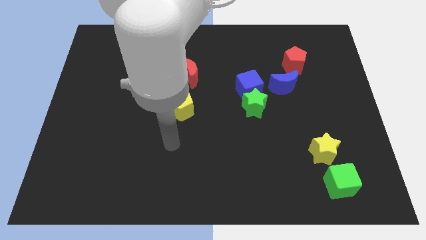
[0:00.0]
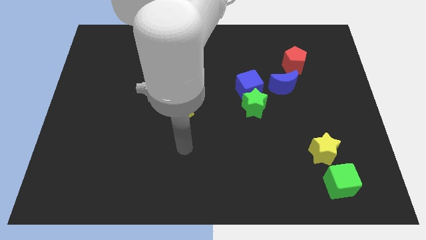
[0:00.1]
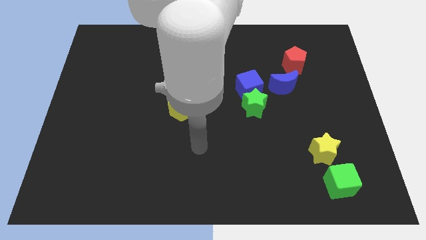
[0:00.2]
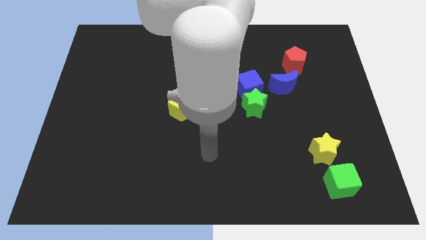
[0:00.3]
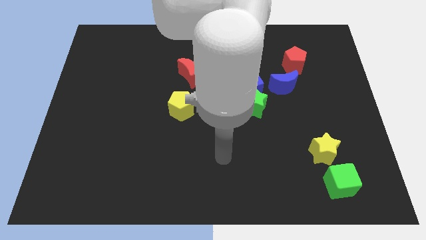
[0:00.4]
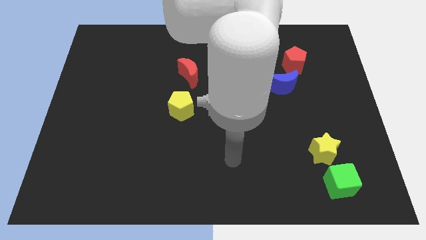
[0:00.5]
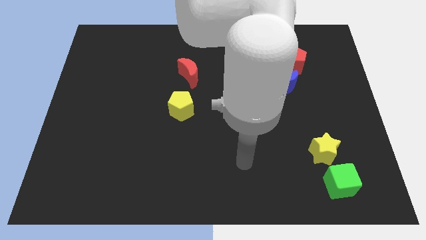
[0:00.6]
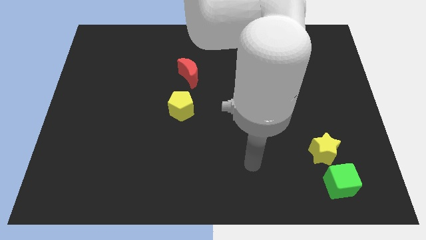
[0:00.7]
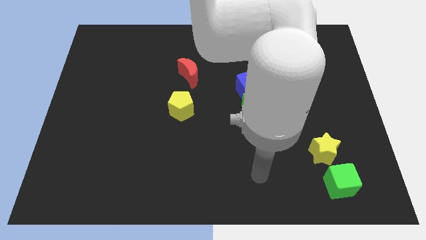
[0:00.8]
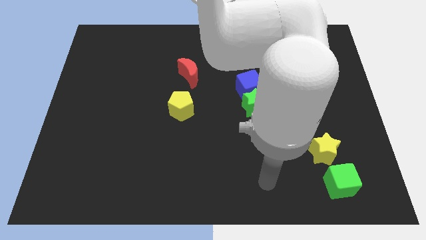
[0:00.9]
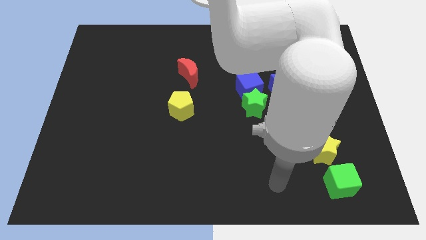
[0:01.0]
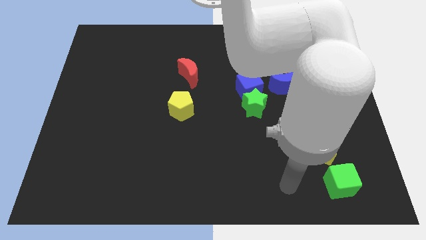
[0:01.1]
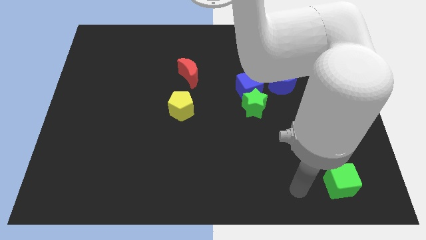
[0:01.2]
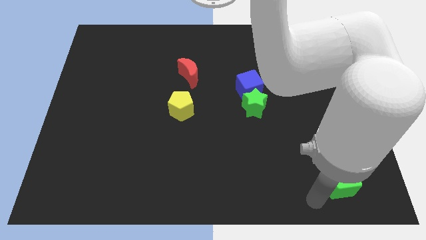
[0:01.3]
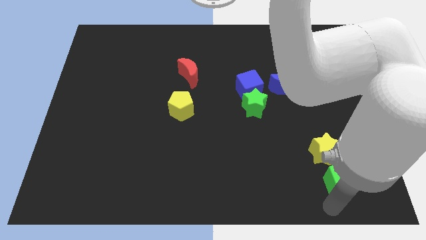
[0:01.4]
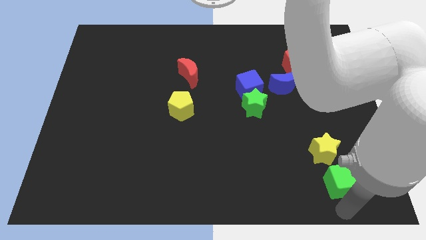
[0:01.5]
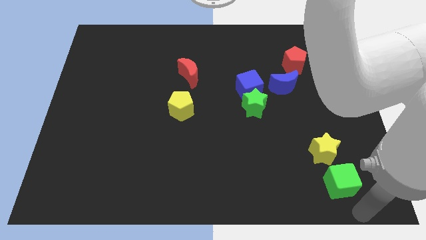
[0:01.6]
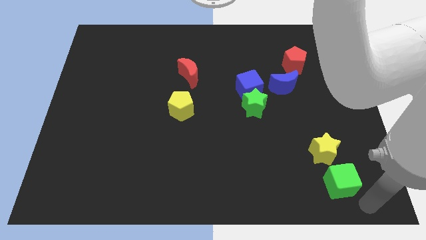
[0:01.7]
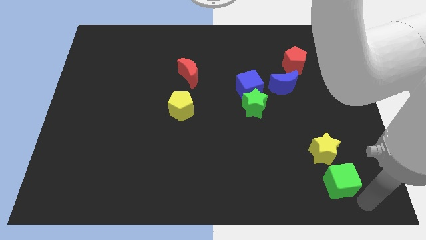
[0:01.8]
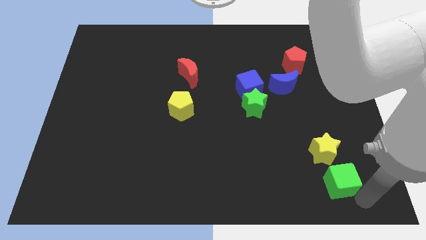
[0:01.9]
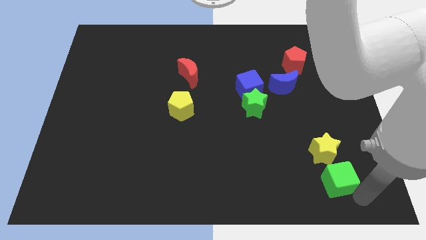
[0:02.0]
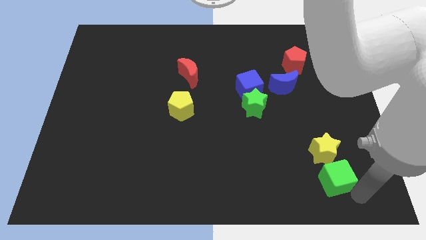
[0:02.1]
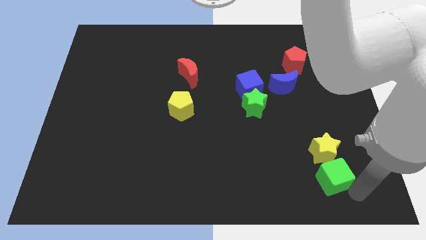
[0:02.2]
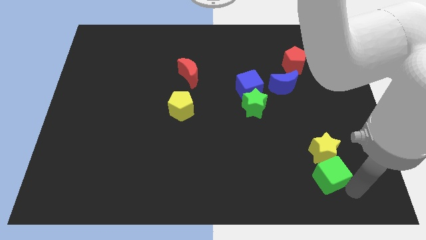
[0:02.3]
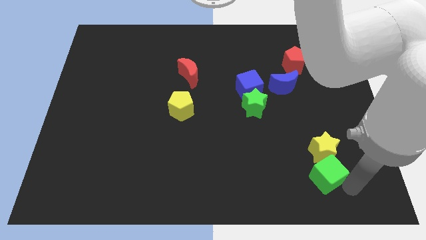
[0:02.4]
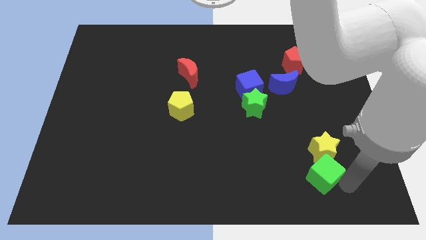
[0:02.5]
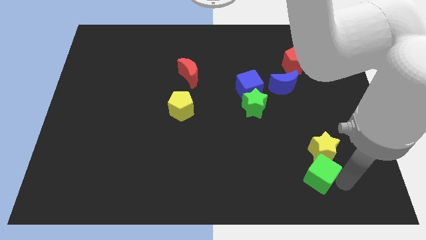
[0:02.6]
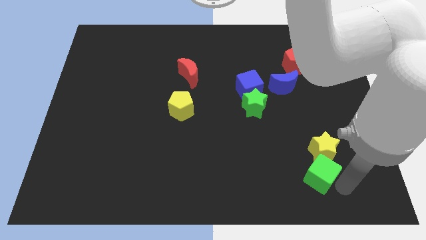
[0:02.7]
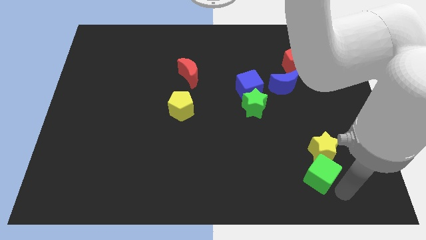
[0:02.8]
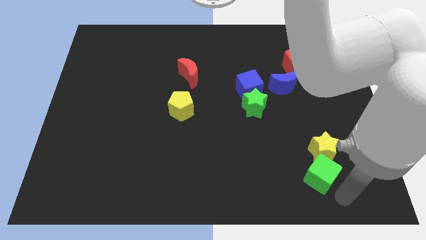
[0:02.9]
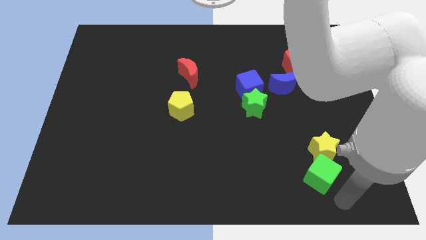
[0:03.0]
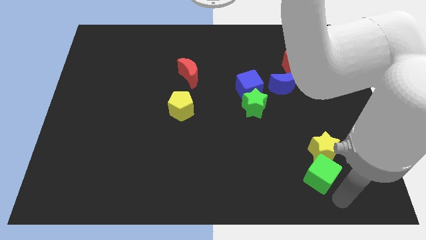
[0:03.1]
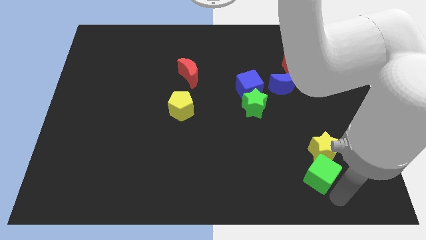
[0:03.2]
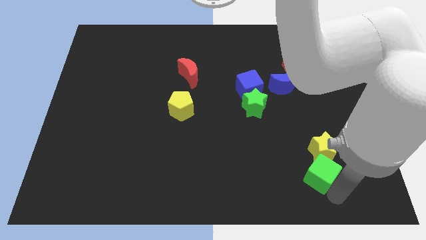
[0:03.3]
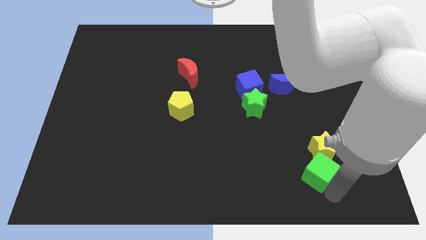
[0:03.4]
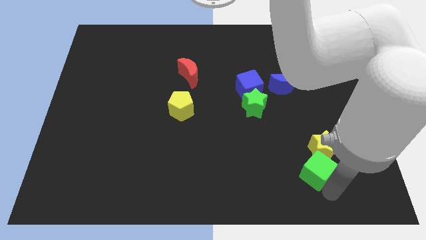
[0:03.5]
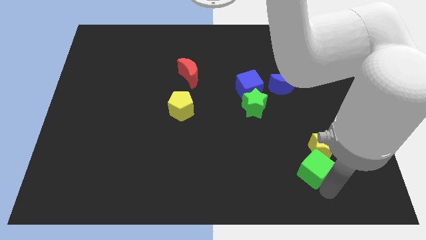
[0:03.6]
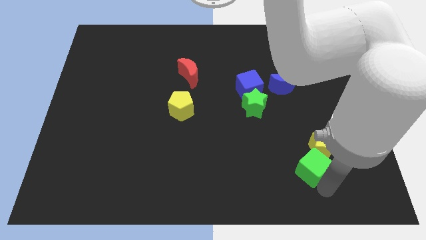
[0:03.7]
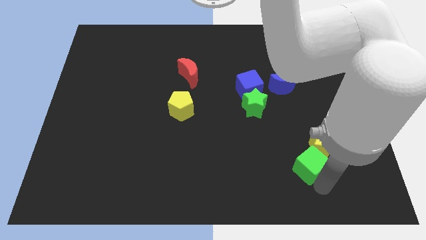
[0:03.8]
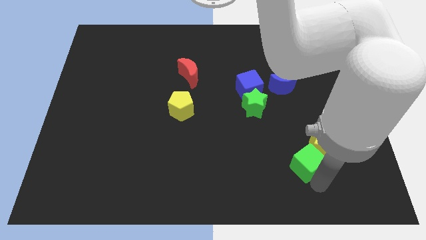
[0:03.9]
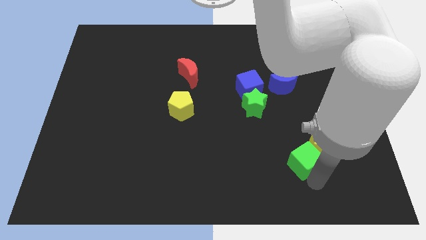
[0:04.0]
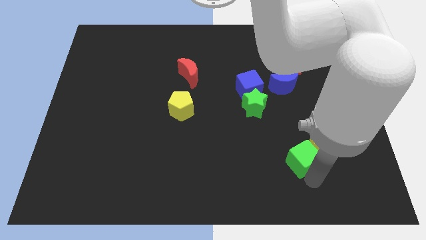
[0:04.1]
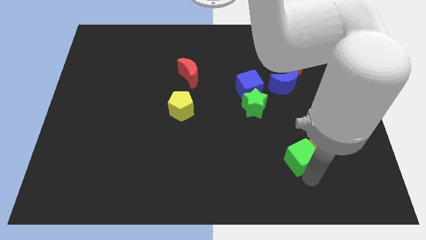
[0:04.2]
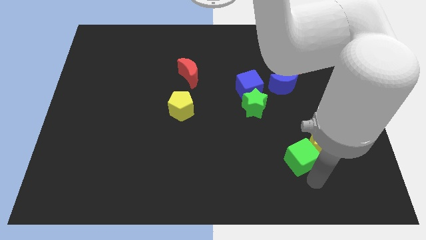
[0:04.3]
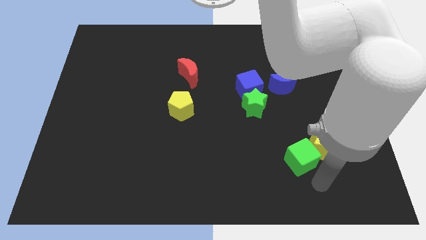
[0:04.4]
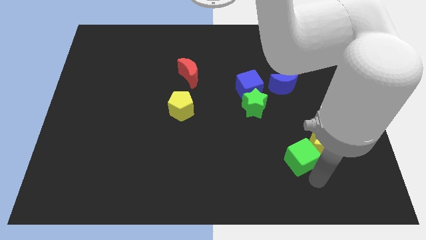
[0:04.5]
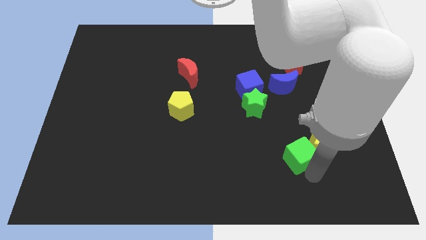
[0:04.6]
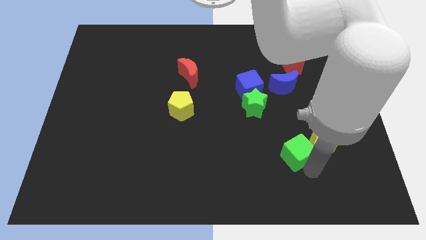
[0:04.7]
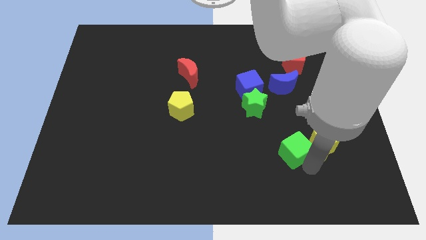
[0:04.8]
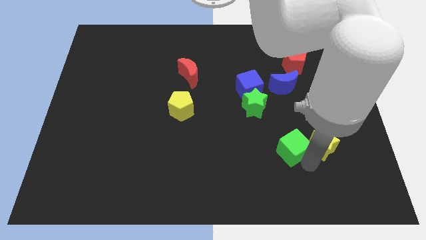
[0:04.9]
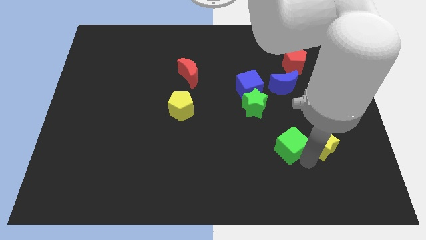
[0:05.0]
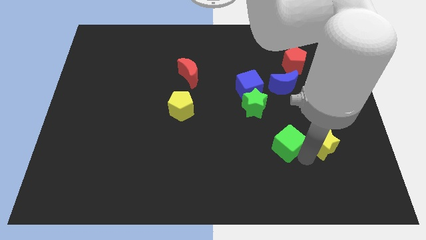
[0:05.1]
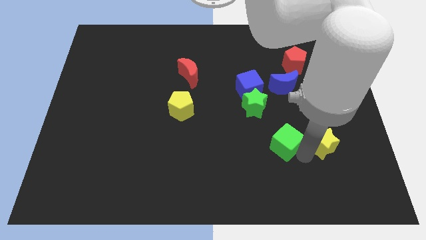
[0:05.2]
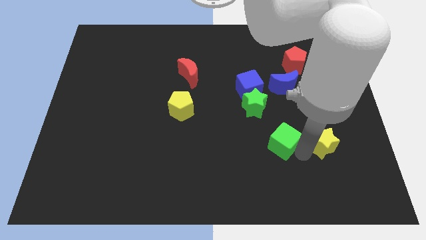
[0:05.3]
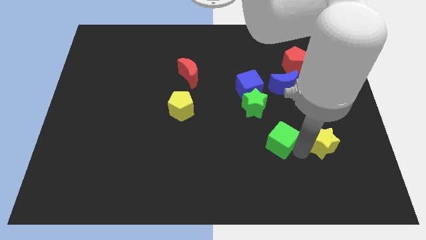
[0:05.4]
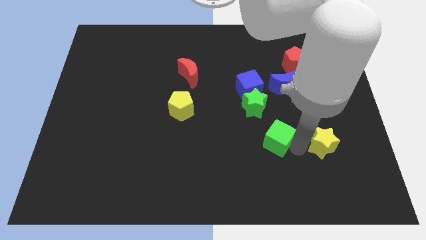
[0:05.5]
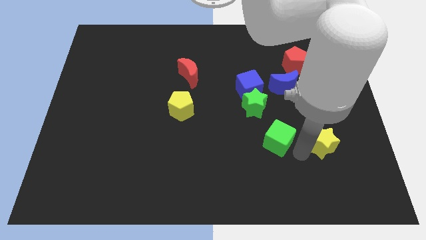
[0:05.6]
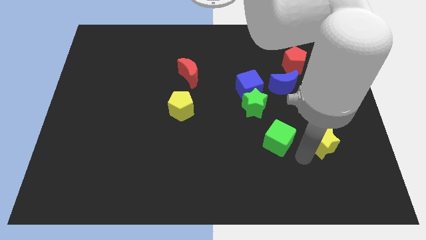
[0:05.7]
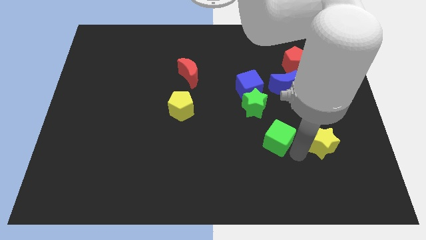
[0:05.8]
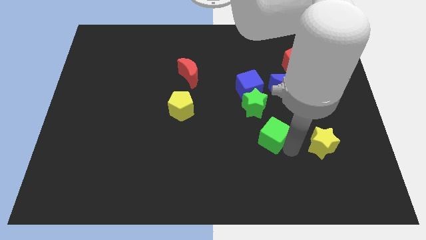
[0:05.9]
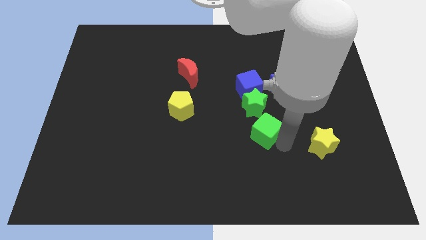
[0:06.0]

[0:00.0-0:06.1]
push the green cube to the bottom of the blue cube

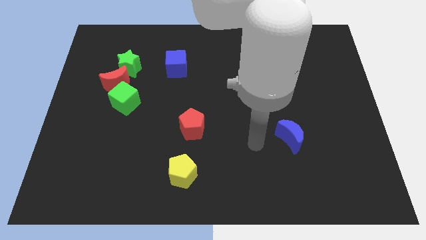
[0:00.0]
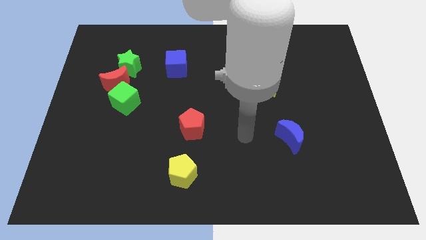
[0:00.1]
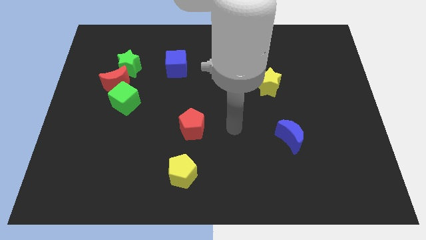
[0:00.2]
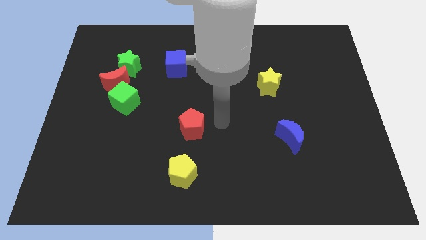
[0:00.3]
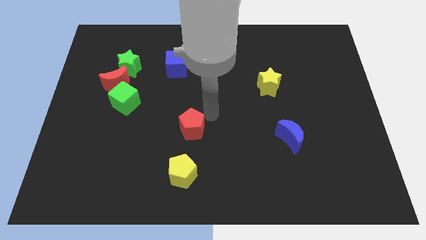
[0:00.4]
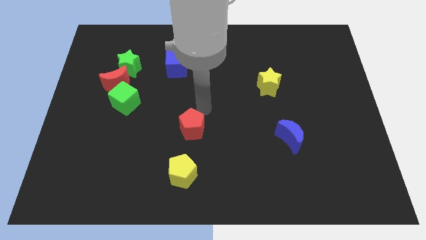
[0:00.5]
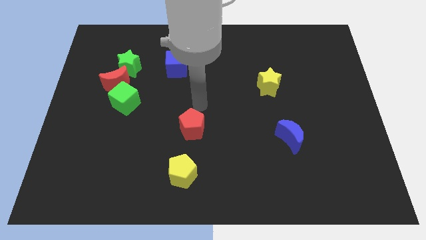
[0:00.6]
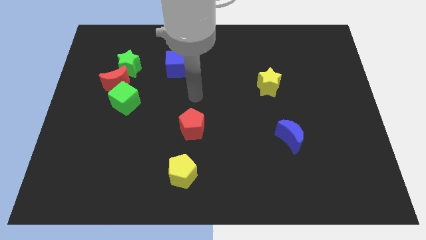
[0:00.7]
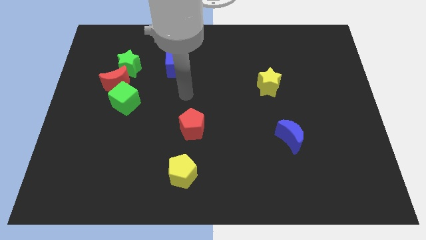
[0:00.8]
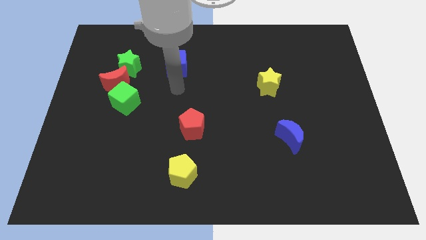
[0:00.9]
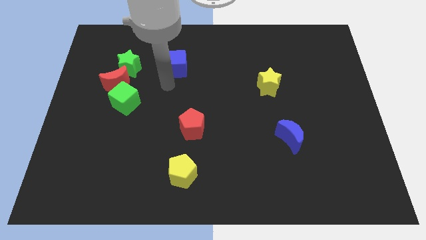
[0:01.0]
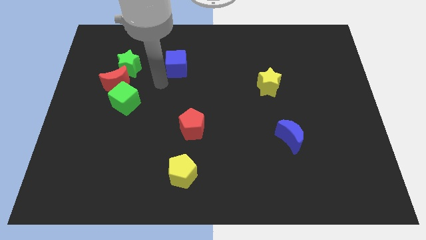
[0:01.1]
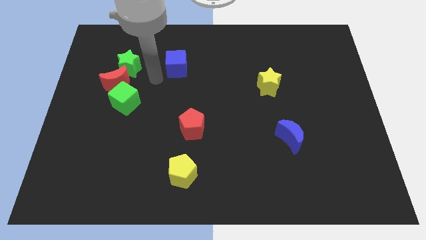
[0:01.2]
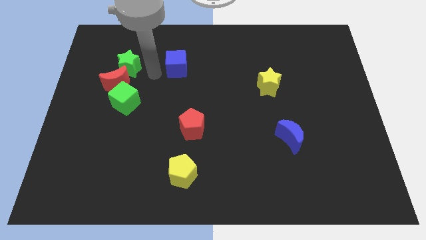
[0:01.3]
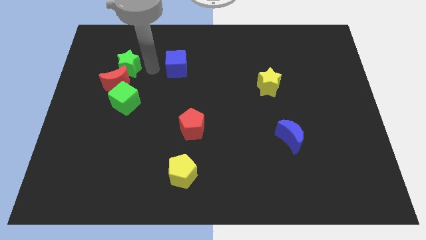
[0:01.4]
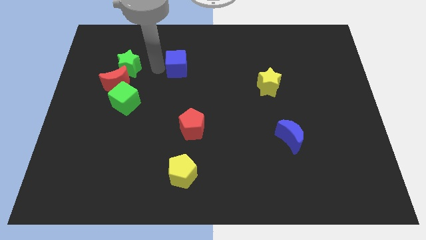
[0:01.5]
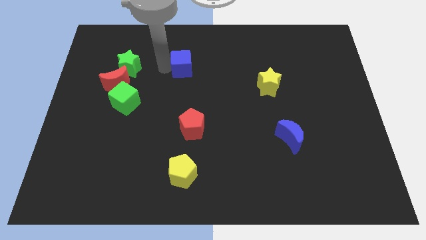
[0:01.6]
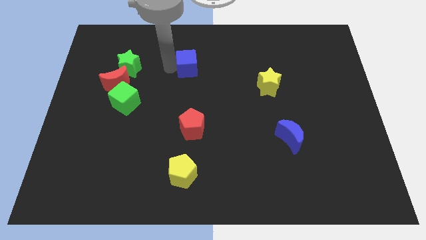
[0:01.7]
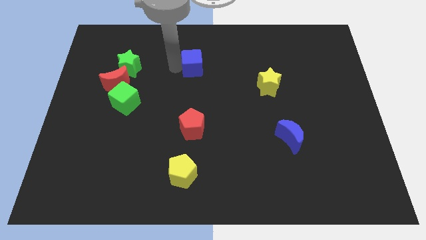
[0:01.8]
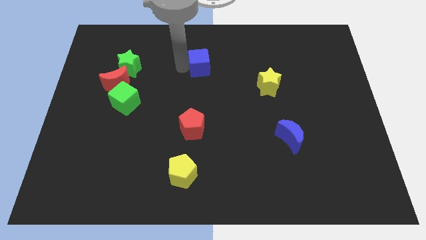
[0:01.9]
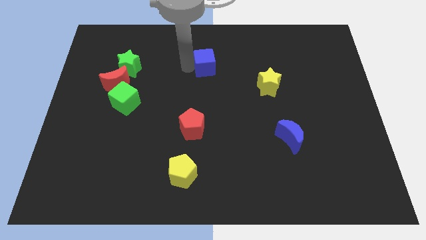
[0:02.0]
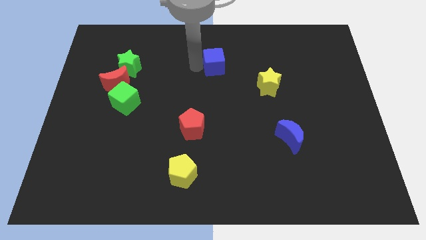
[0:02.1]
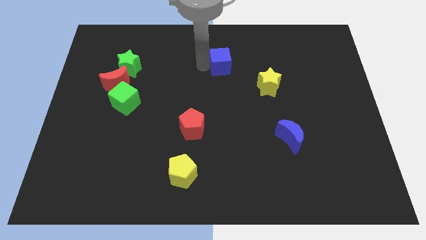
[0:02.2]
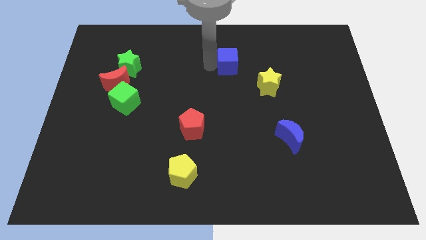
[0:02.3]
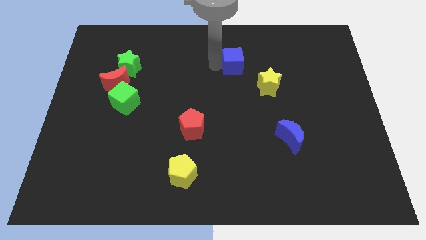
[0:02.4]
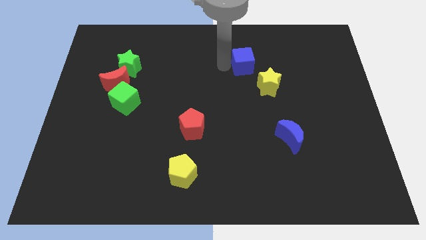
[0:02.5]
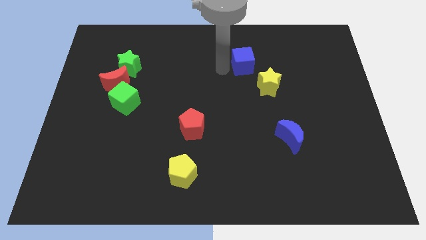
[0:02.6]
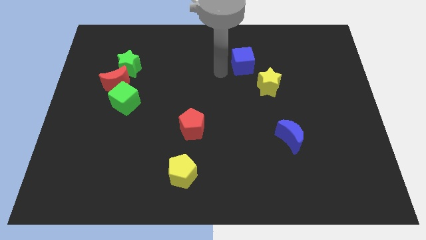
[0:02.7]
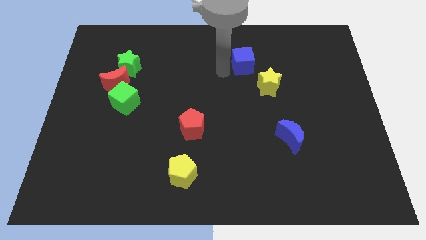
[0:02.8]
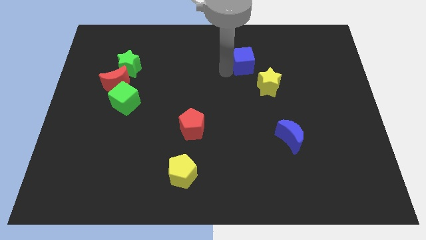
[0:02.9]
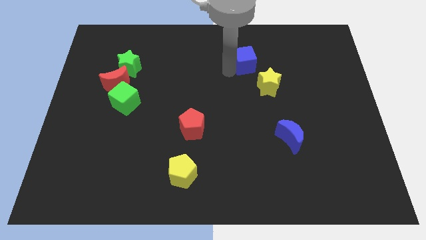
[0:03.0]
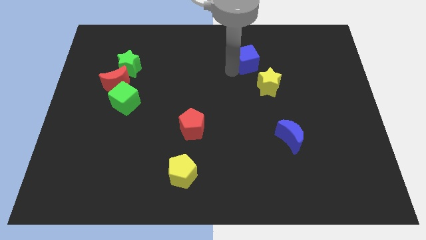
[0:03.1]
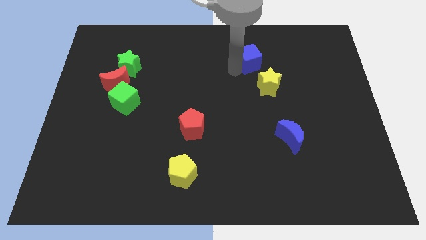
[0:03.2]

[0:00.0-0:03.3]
slide the blue cube to the top side of the yellow star
